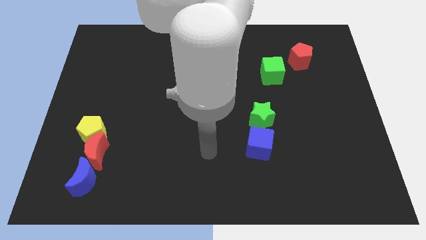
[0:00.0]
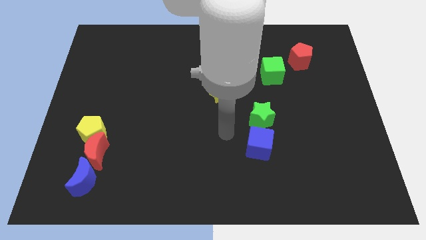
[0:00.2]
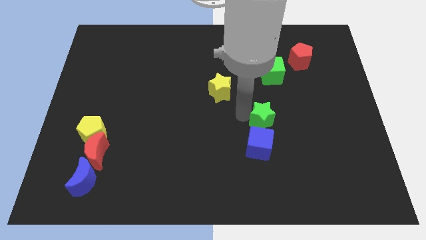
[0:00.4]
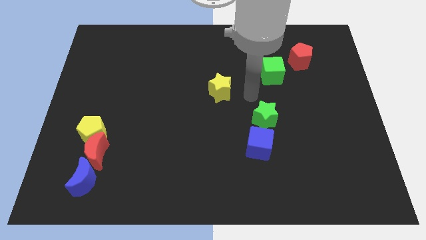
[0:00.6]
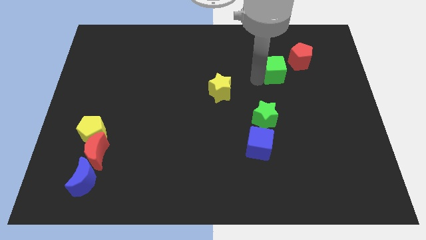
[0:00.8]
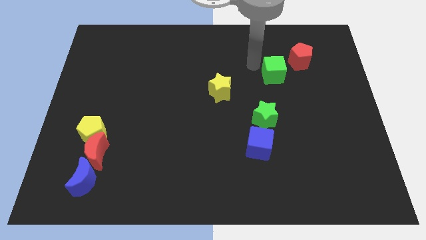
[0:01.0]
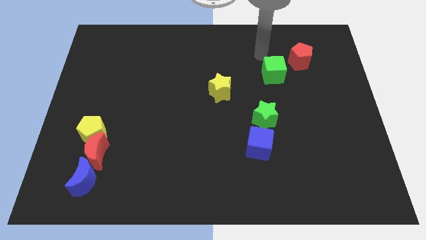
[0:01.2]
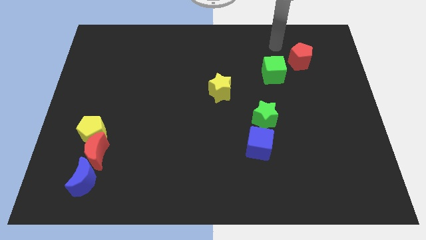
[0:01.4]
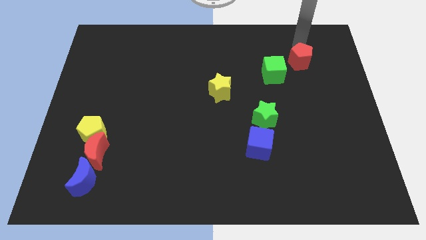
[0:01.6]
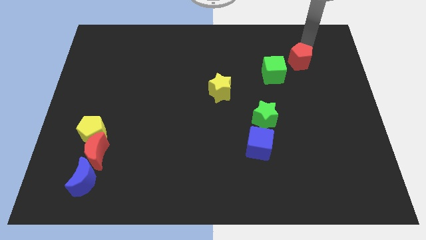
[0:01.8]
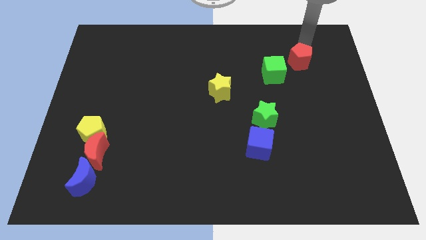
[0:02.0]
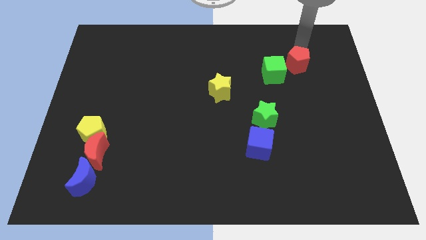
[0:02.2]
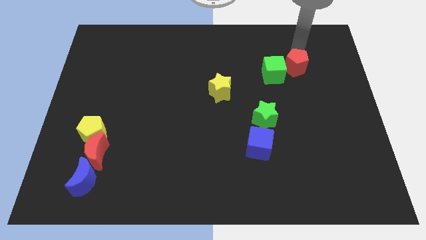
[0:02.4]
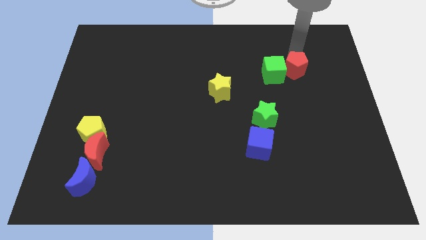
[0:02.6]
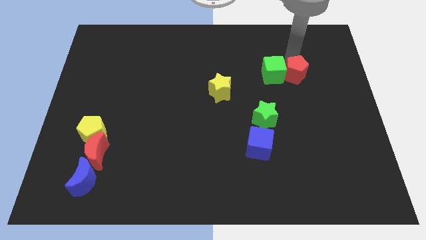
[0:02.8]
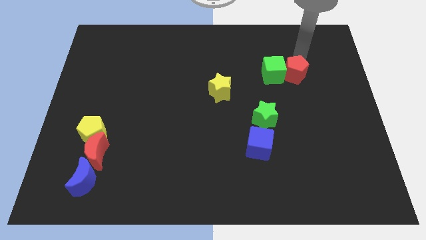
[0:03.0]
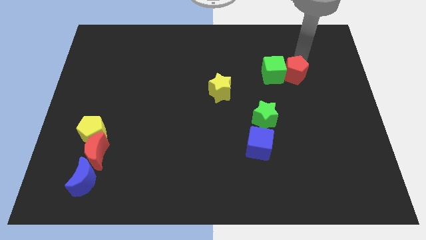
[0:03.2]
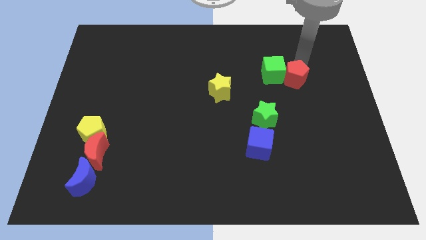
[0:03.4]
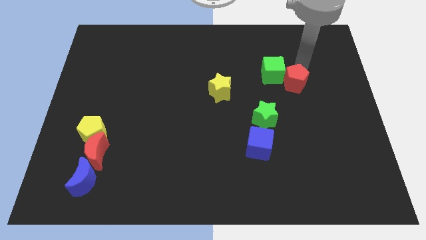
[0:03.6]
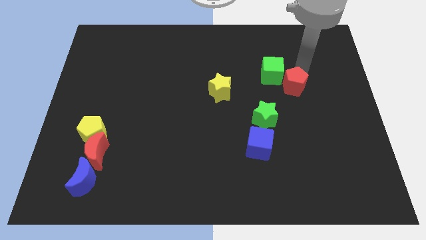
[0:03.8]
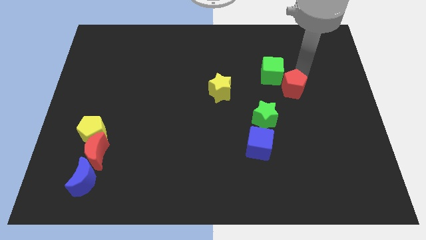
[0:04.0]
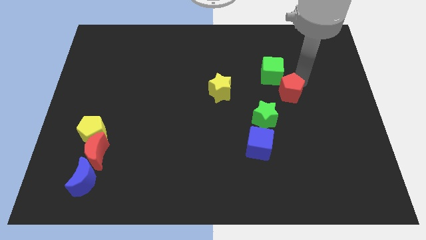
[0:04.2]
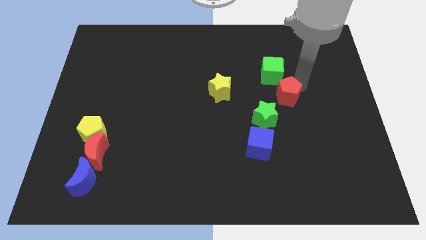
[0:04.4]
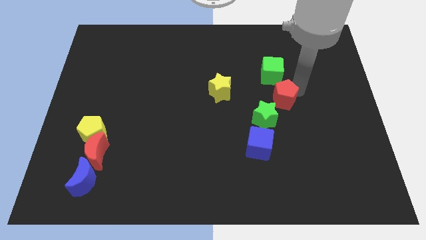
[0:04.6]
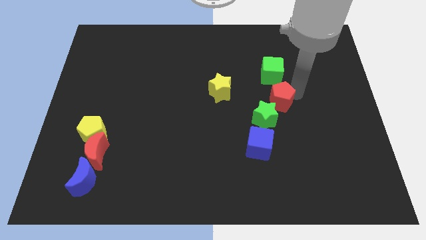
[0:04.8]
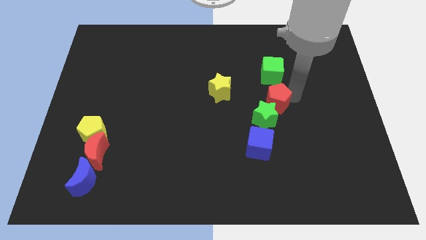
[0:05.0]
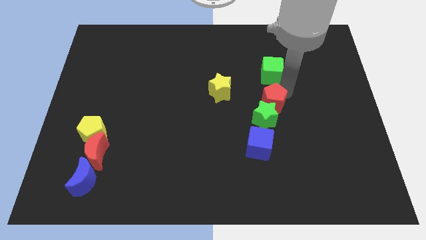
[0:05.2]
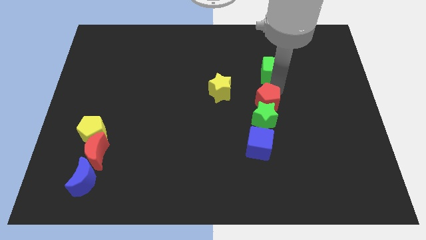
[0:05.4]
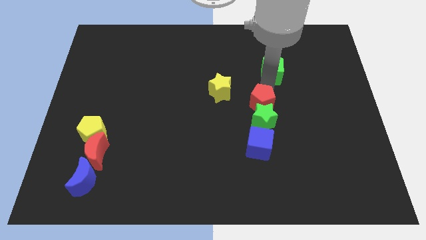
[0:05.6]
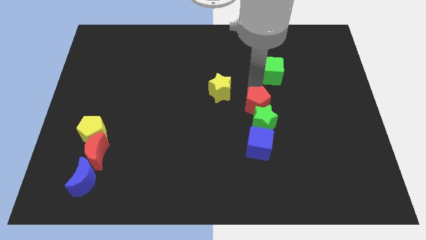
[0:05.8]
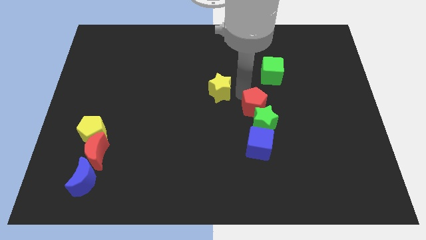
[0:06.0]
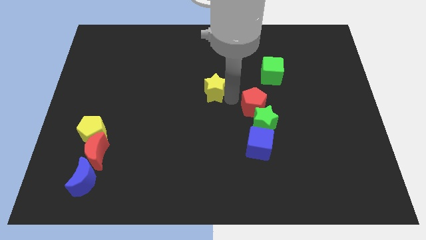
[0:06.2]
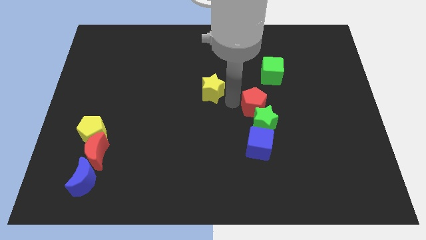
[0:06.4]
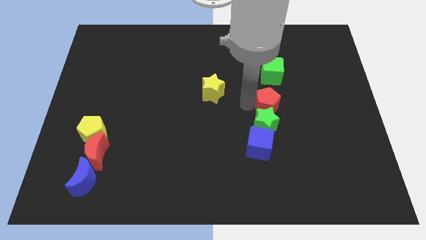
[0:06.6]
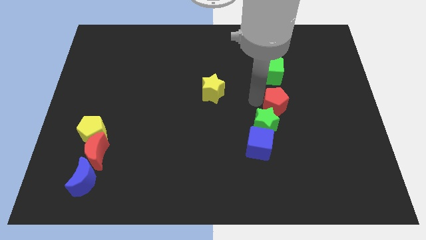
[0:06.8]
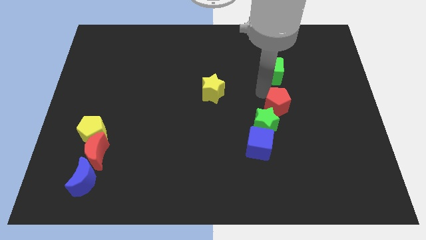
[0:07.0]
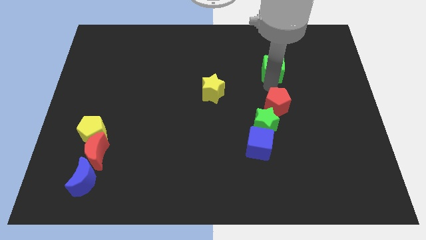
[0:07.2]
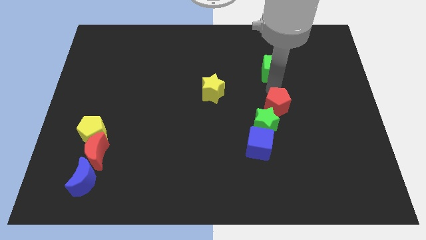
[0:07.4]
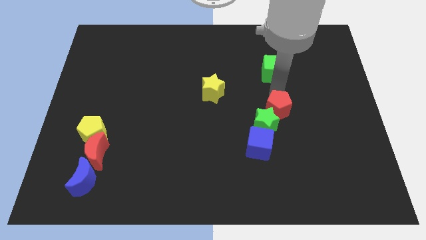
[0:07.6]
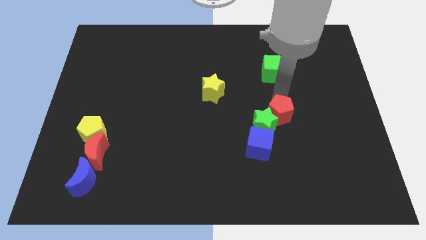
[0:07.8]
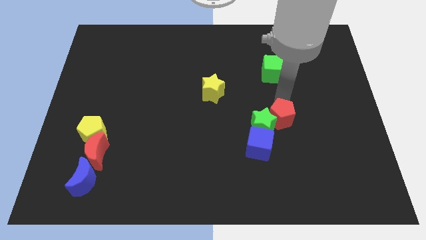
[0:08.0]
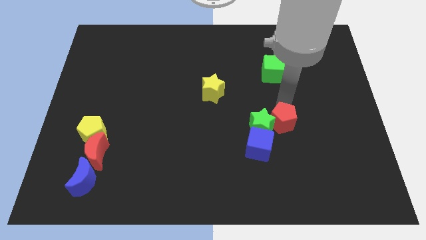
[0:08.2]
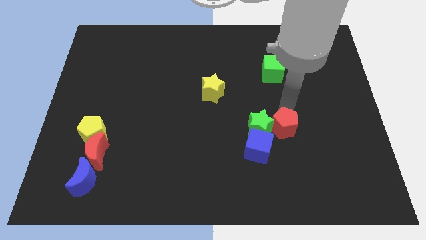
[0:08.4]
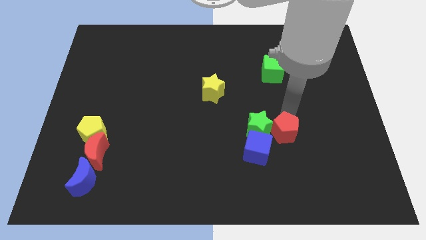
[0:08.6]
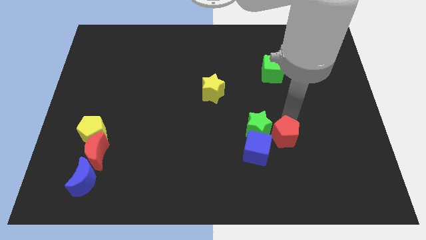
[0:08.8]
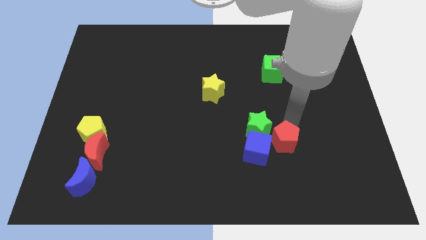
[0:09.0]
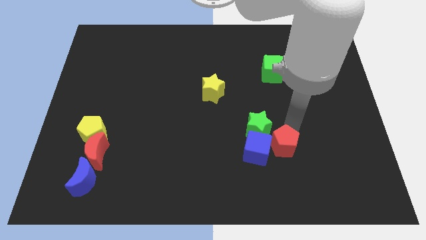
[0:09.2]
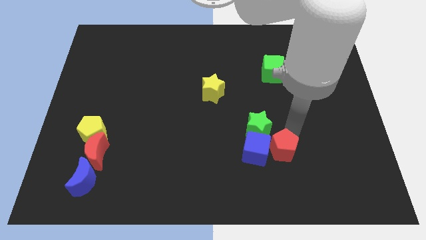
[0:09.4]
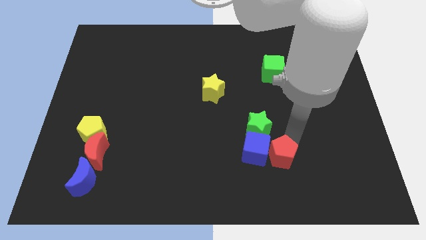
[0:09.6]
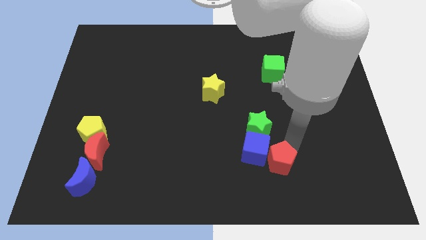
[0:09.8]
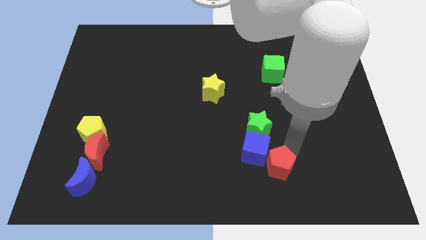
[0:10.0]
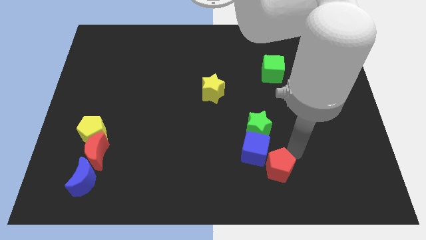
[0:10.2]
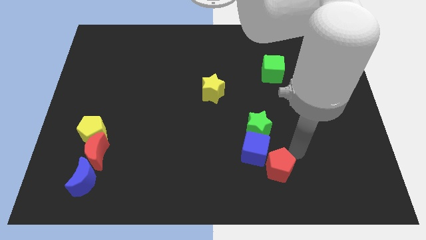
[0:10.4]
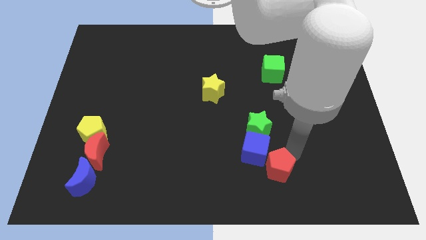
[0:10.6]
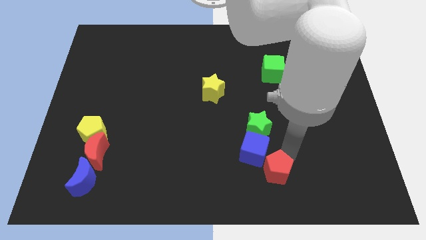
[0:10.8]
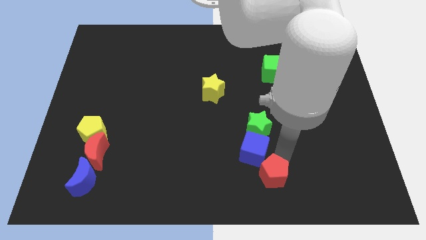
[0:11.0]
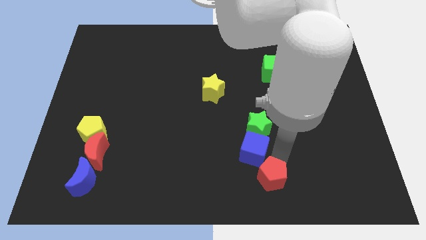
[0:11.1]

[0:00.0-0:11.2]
move the red pentagon to the bottom side
